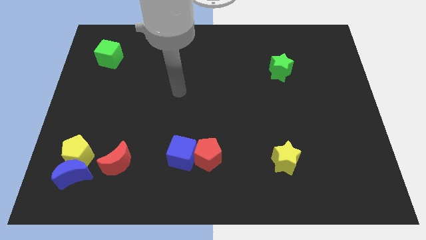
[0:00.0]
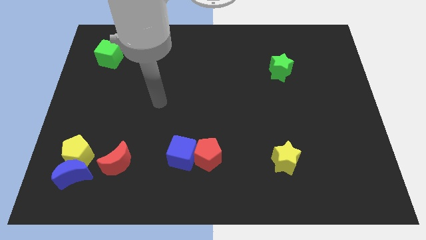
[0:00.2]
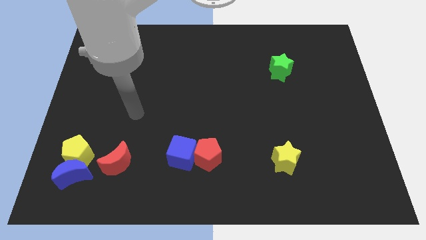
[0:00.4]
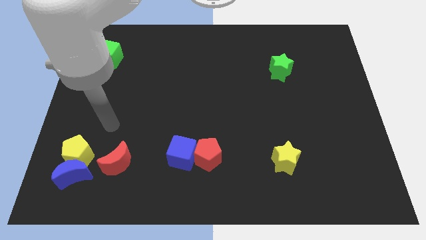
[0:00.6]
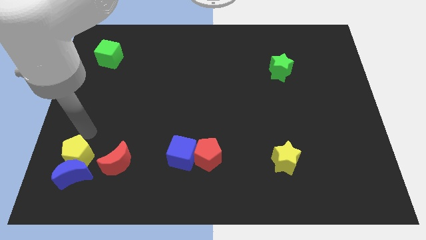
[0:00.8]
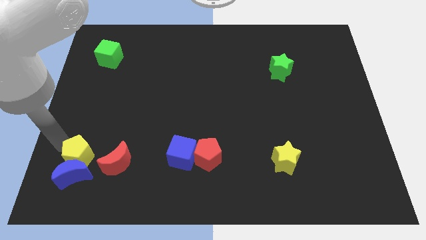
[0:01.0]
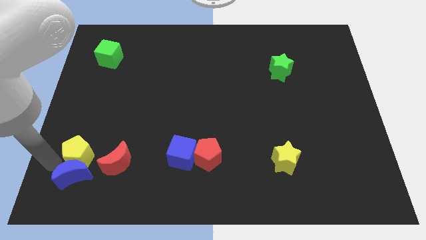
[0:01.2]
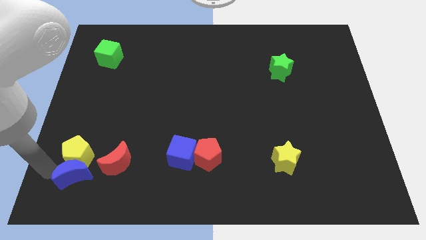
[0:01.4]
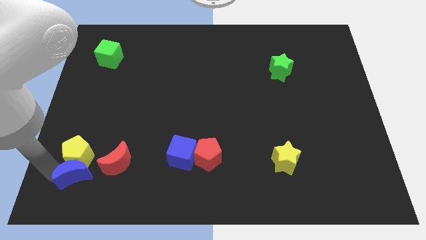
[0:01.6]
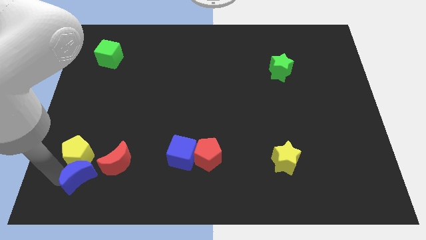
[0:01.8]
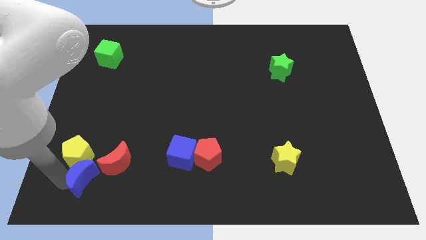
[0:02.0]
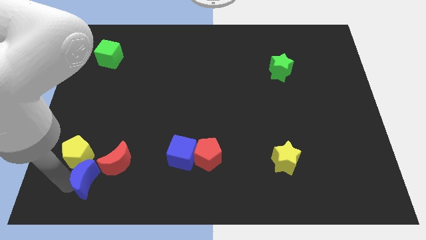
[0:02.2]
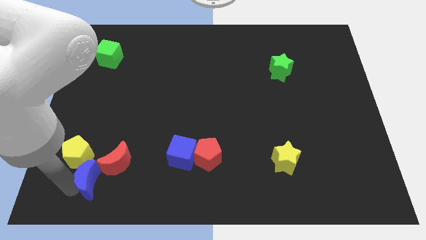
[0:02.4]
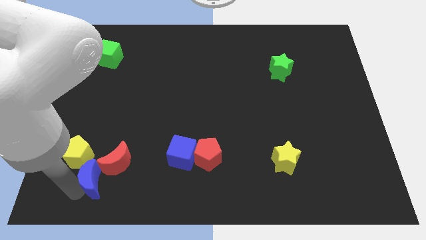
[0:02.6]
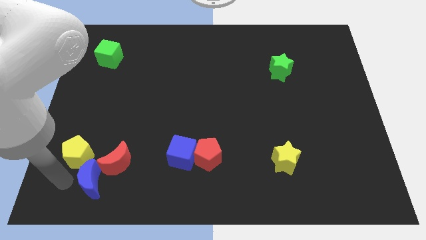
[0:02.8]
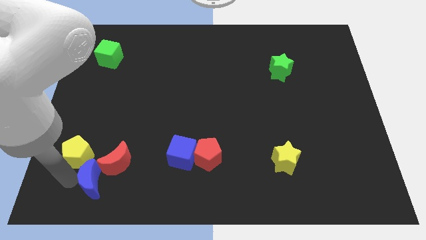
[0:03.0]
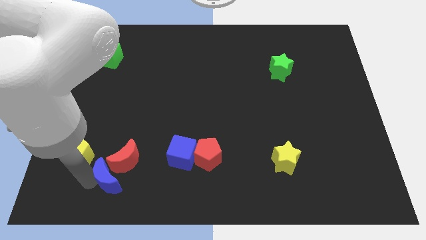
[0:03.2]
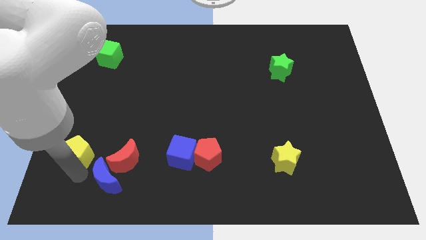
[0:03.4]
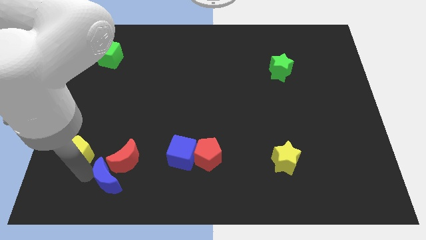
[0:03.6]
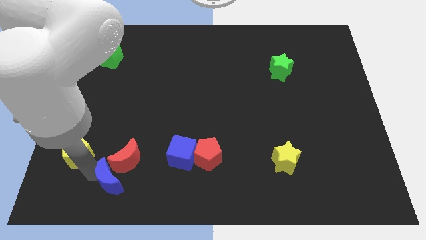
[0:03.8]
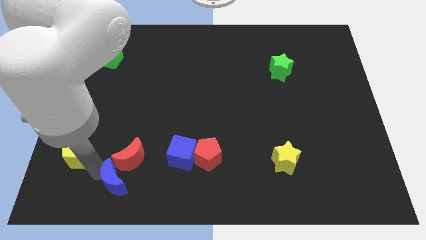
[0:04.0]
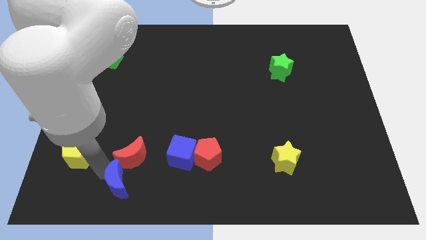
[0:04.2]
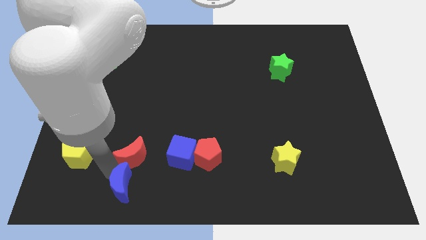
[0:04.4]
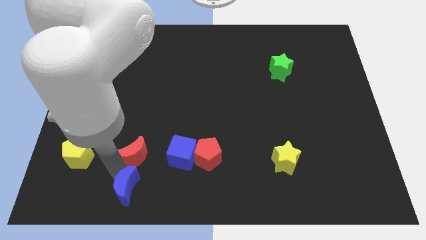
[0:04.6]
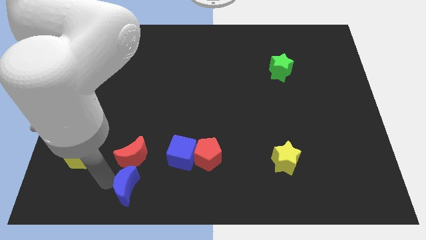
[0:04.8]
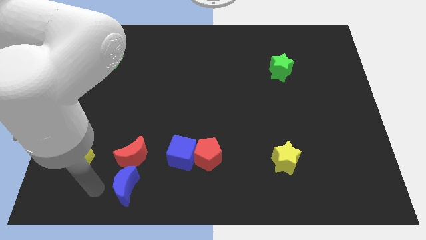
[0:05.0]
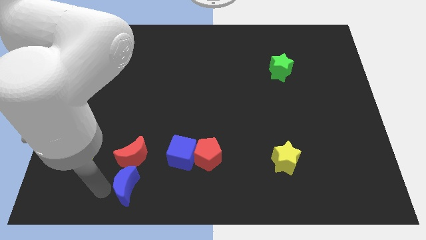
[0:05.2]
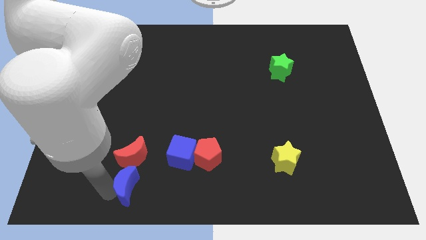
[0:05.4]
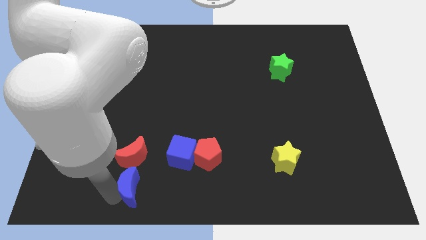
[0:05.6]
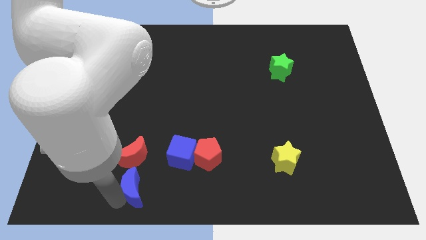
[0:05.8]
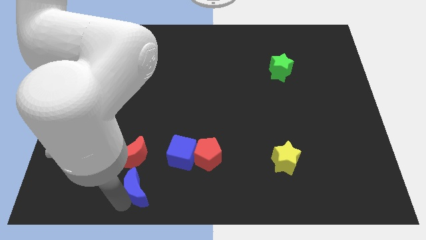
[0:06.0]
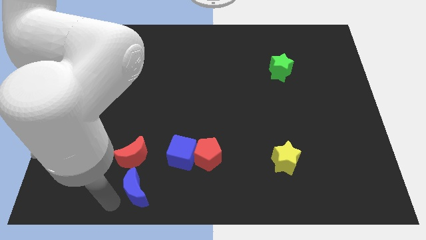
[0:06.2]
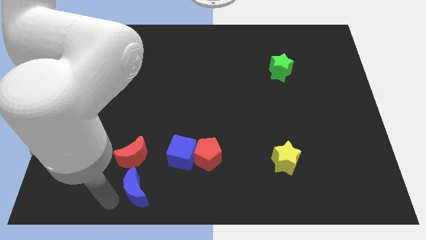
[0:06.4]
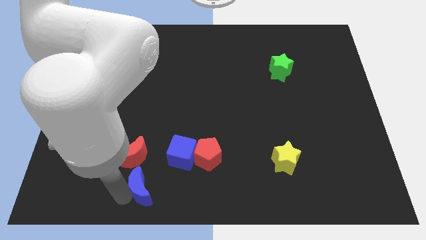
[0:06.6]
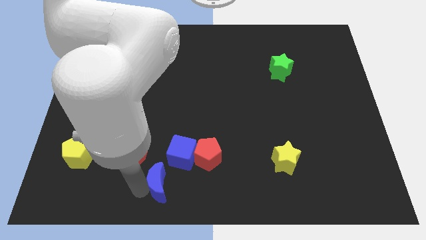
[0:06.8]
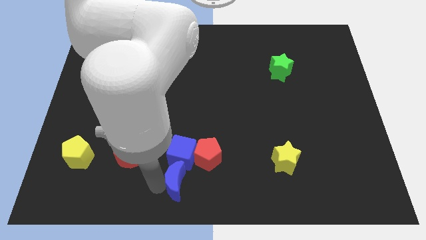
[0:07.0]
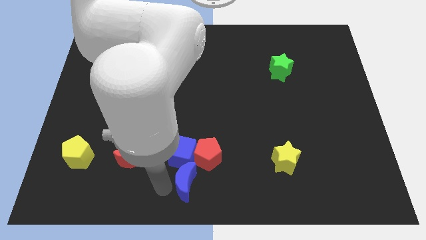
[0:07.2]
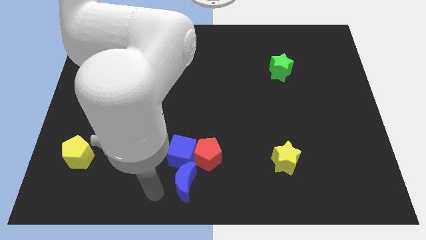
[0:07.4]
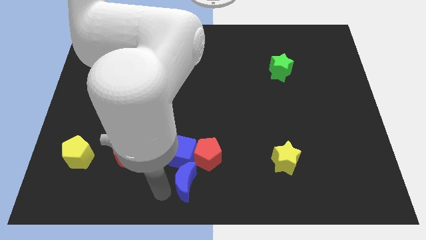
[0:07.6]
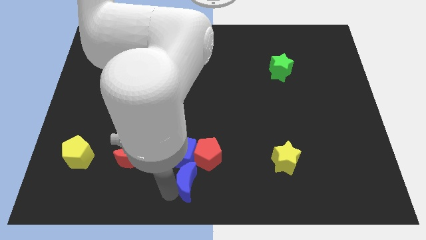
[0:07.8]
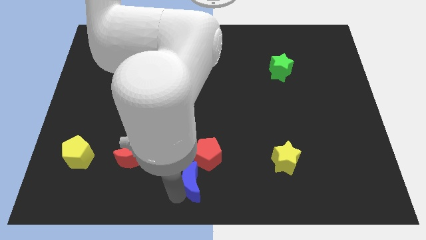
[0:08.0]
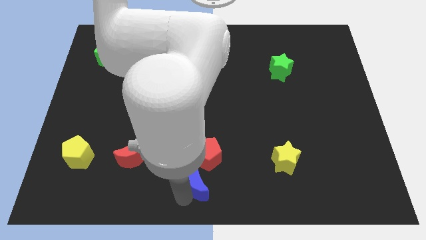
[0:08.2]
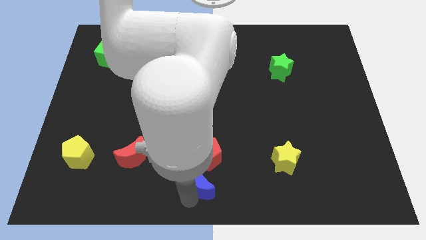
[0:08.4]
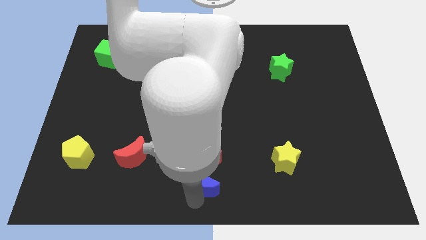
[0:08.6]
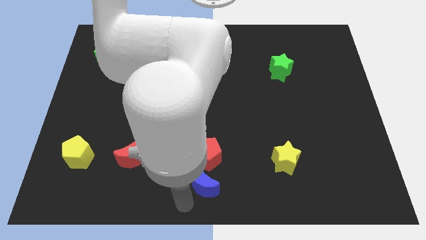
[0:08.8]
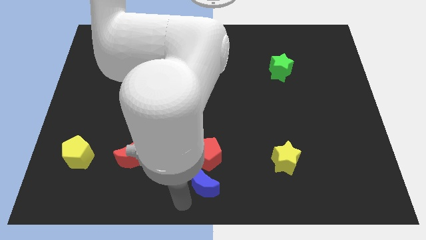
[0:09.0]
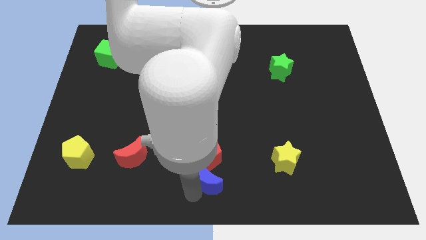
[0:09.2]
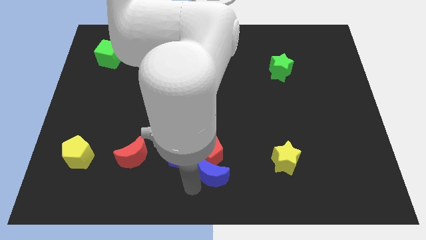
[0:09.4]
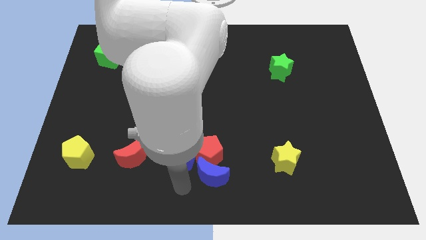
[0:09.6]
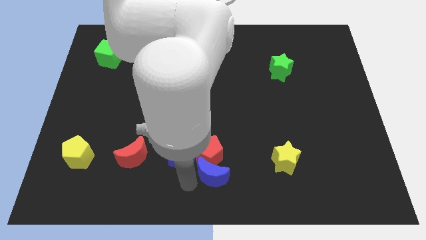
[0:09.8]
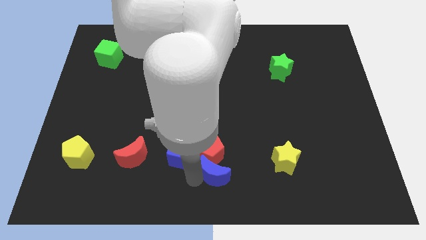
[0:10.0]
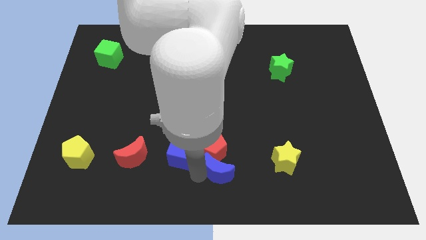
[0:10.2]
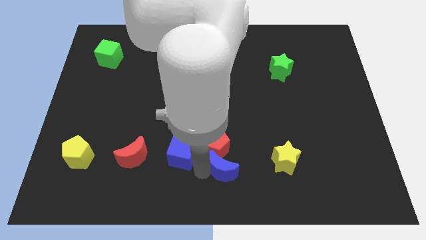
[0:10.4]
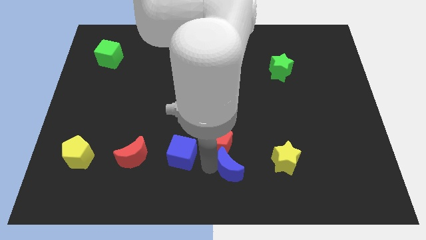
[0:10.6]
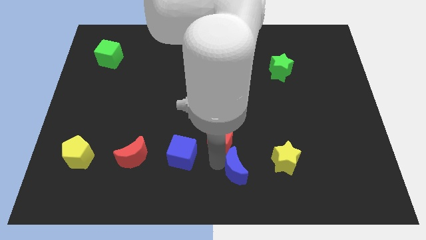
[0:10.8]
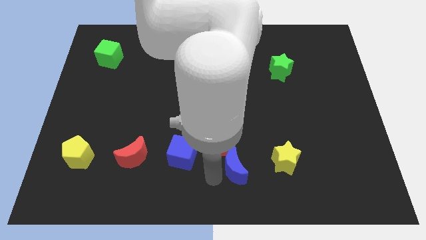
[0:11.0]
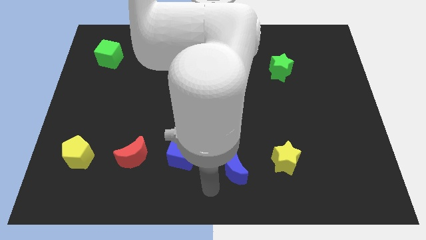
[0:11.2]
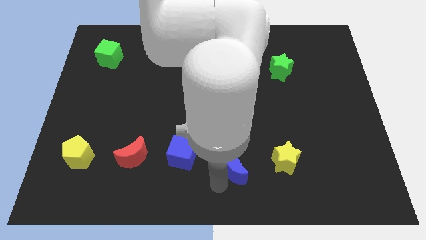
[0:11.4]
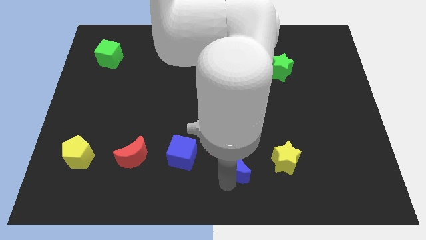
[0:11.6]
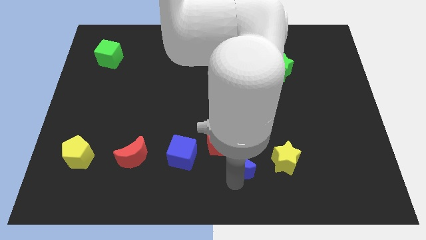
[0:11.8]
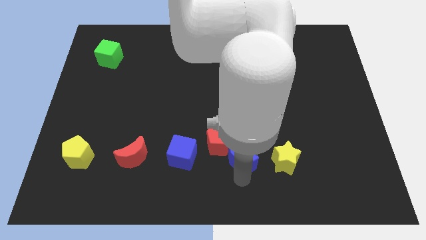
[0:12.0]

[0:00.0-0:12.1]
slide the blue moon to the right of the red pentagon
